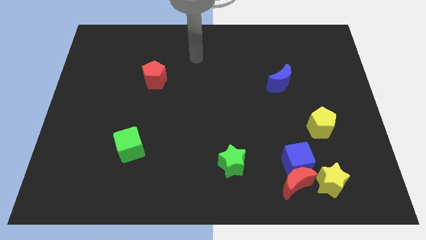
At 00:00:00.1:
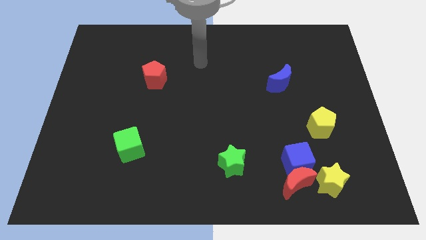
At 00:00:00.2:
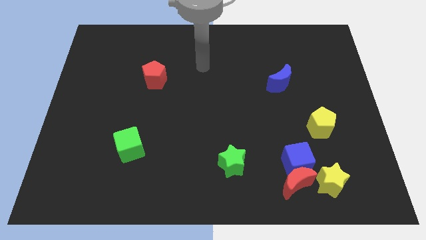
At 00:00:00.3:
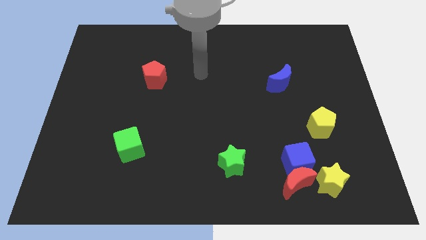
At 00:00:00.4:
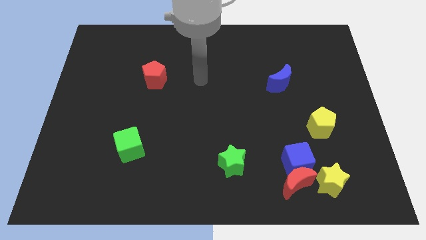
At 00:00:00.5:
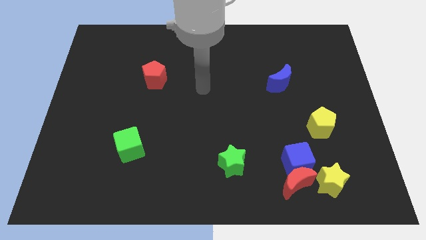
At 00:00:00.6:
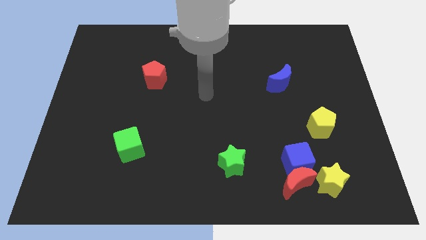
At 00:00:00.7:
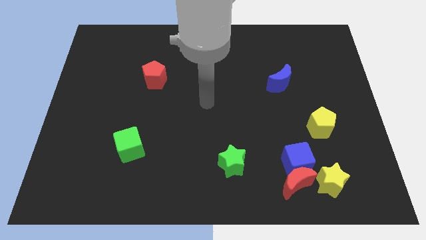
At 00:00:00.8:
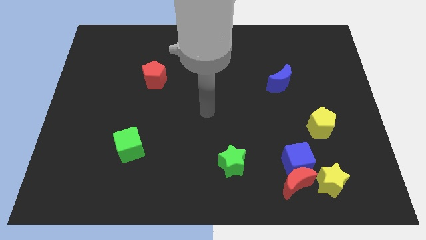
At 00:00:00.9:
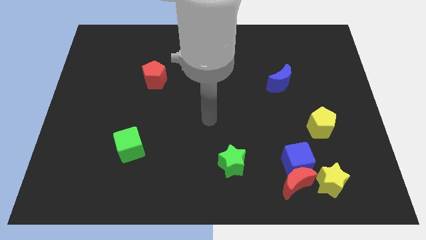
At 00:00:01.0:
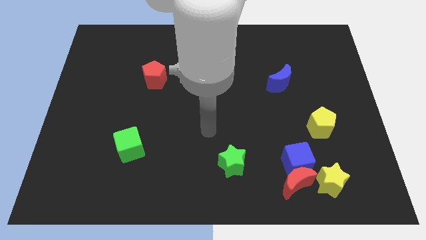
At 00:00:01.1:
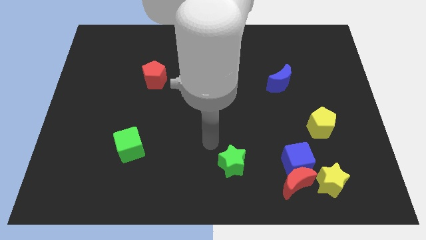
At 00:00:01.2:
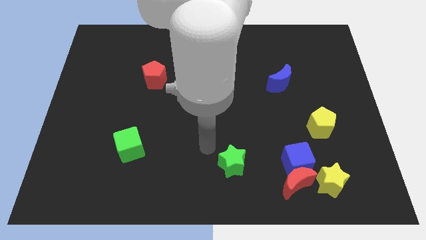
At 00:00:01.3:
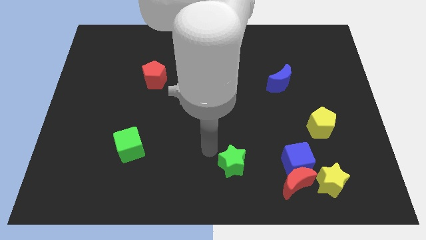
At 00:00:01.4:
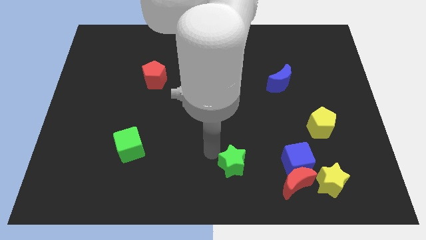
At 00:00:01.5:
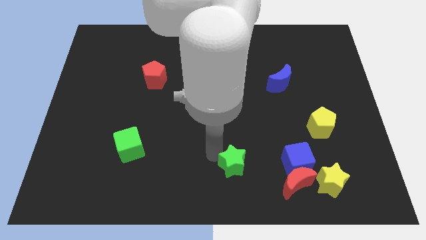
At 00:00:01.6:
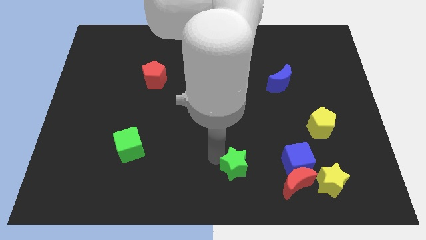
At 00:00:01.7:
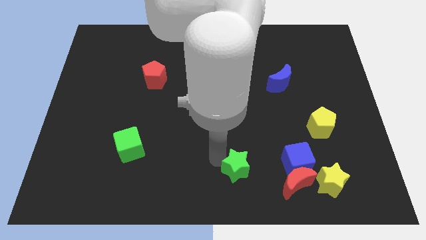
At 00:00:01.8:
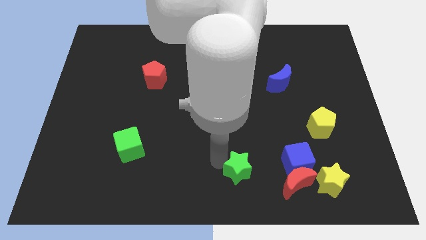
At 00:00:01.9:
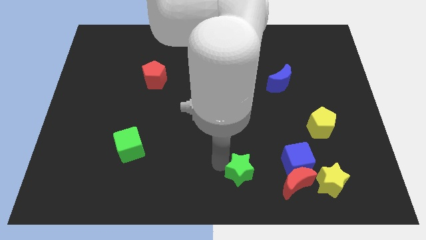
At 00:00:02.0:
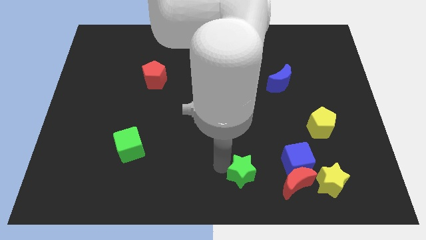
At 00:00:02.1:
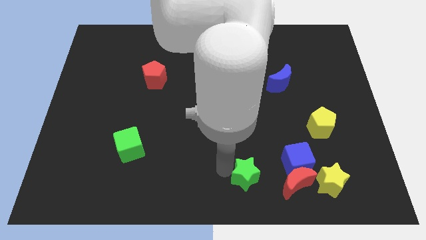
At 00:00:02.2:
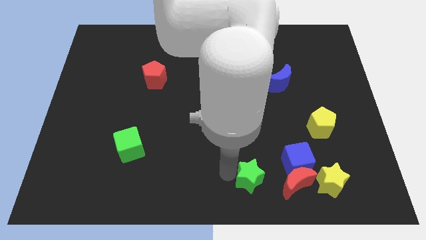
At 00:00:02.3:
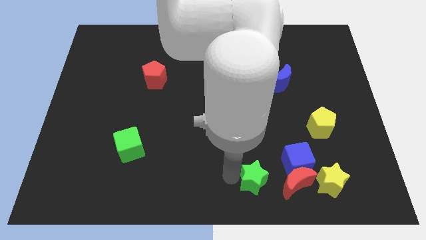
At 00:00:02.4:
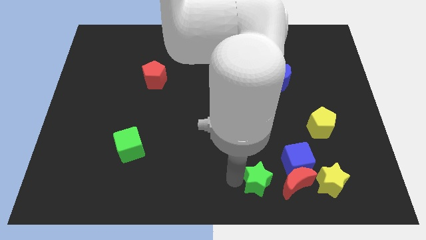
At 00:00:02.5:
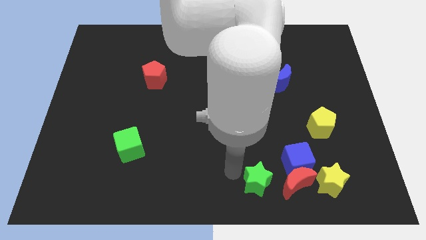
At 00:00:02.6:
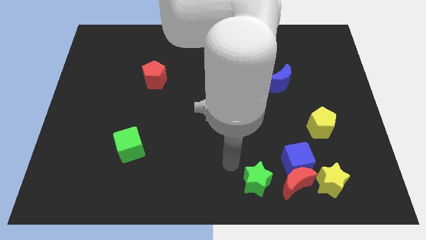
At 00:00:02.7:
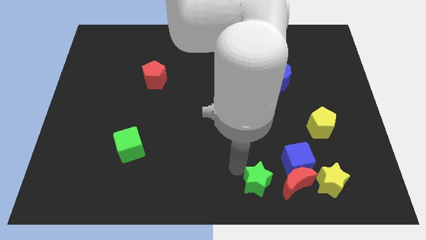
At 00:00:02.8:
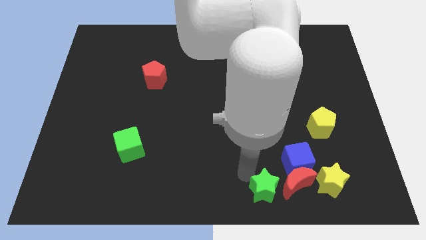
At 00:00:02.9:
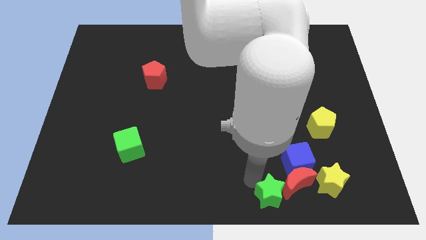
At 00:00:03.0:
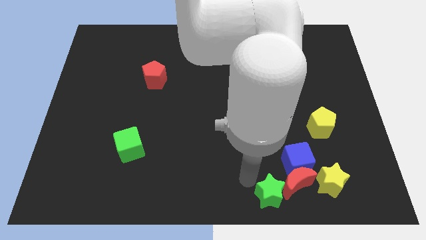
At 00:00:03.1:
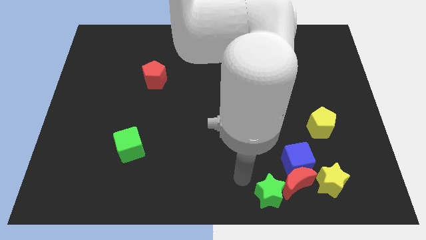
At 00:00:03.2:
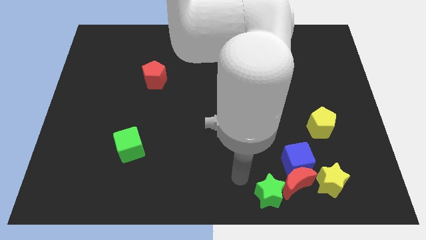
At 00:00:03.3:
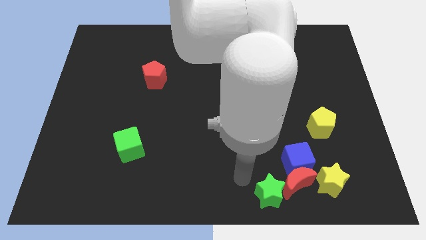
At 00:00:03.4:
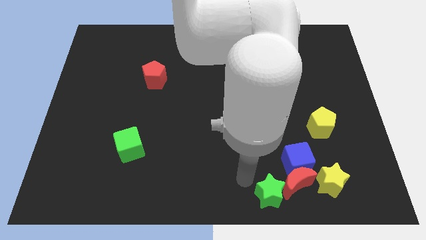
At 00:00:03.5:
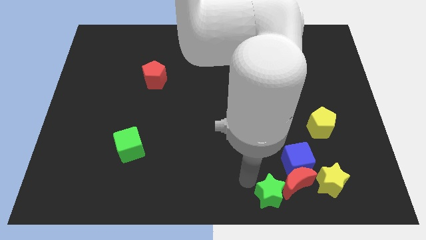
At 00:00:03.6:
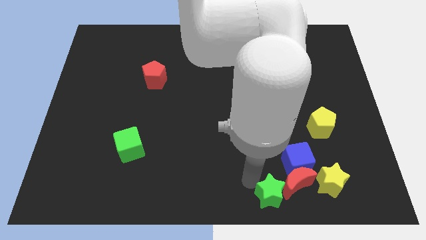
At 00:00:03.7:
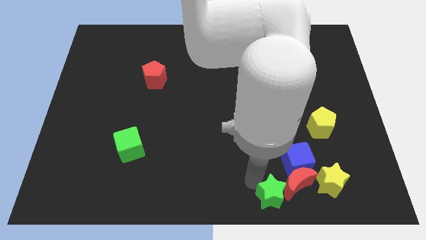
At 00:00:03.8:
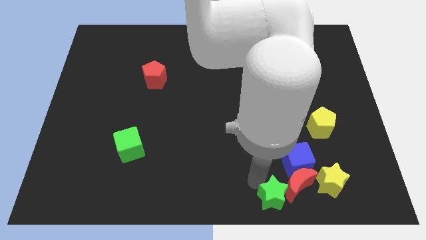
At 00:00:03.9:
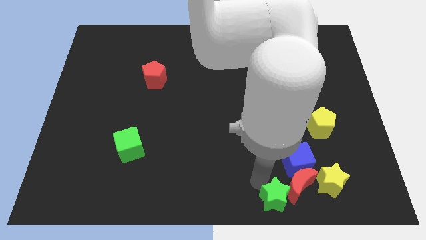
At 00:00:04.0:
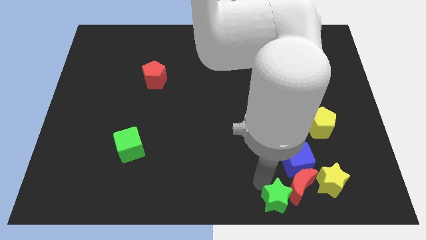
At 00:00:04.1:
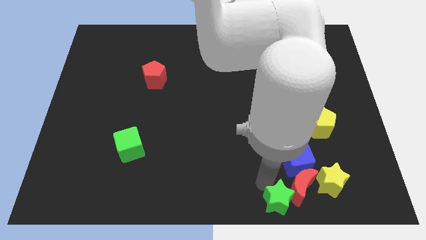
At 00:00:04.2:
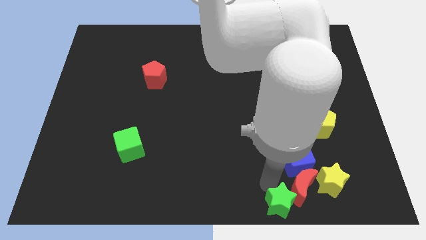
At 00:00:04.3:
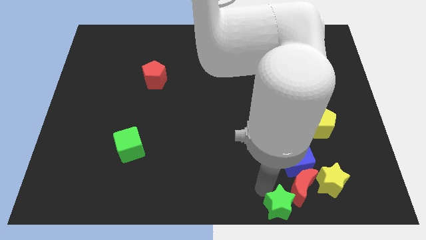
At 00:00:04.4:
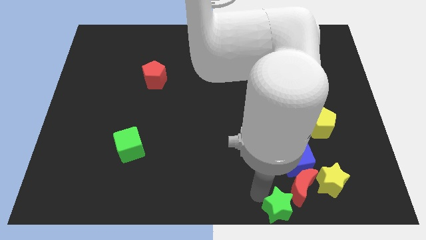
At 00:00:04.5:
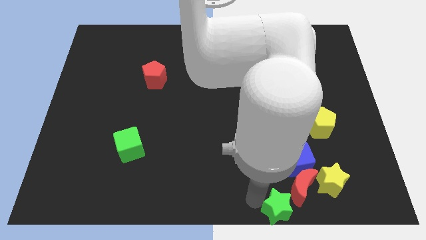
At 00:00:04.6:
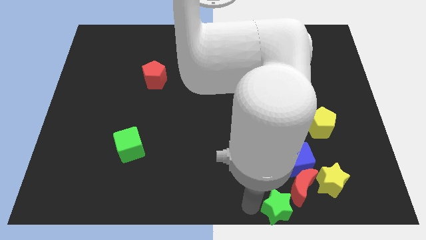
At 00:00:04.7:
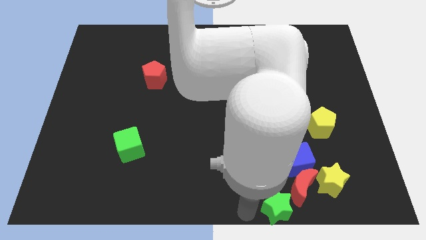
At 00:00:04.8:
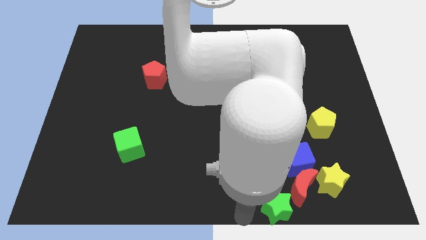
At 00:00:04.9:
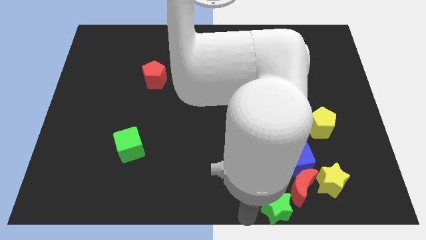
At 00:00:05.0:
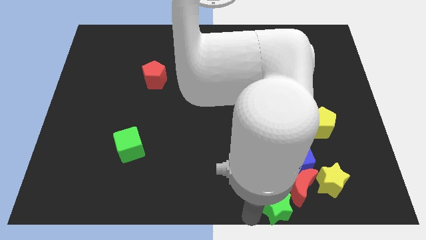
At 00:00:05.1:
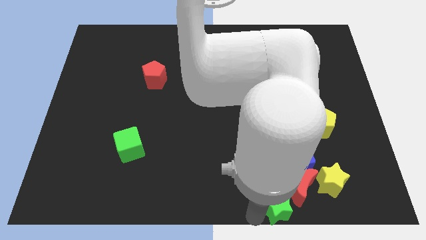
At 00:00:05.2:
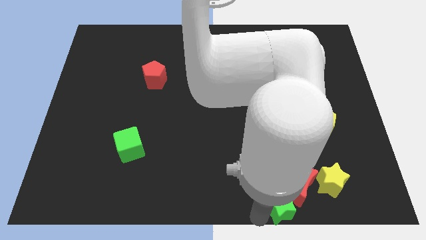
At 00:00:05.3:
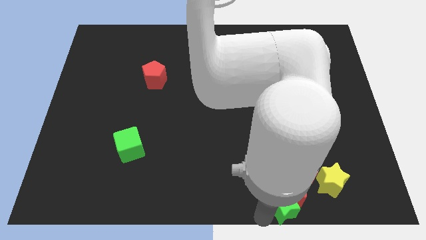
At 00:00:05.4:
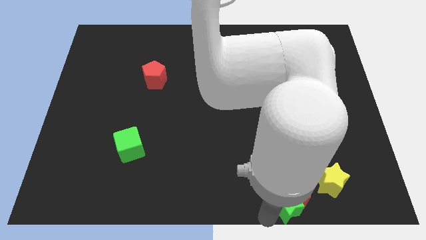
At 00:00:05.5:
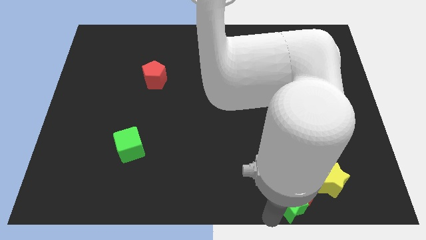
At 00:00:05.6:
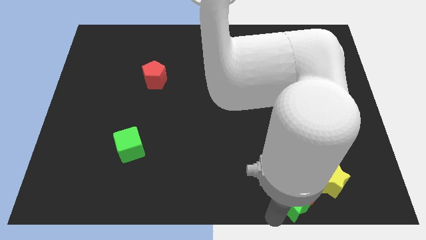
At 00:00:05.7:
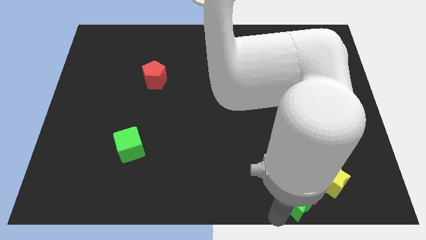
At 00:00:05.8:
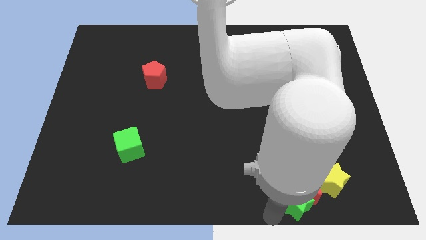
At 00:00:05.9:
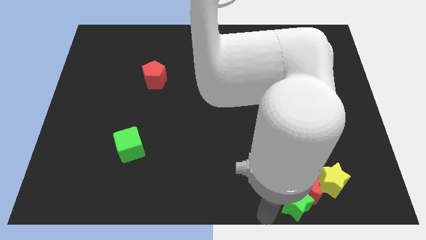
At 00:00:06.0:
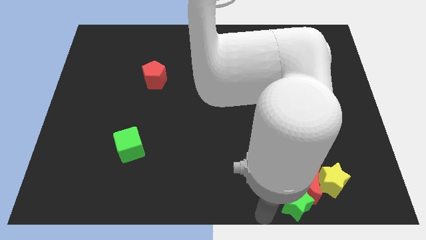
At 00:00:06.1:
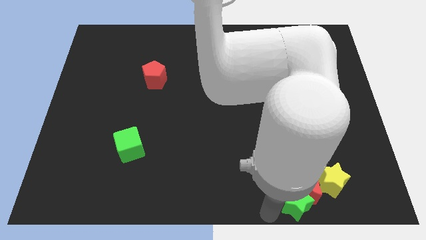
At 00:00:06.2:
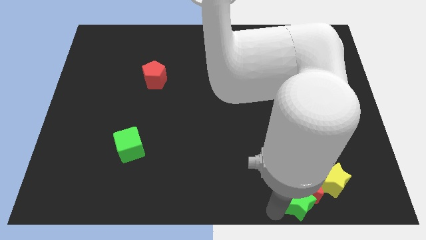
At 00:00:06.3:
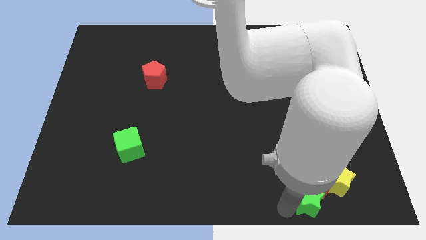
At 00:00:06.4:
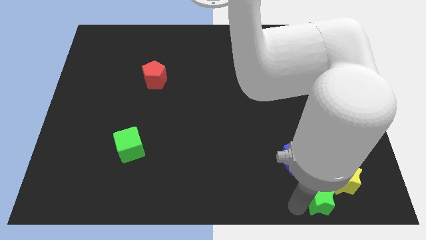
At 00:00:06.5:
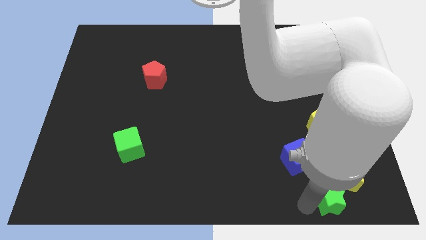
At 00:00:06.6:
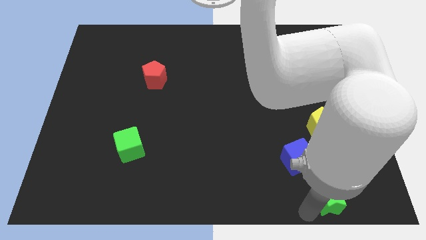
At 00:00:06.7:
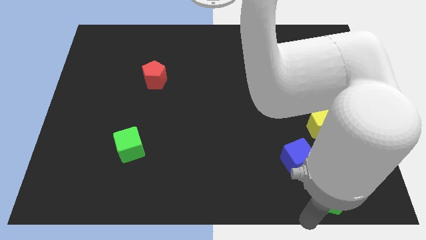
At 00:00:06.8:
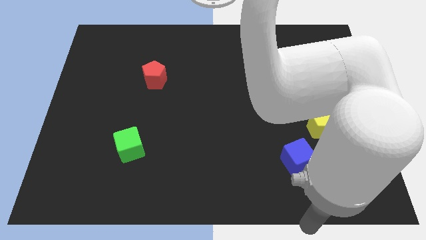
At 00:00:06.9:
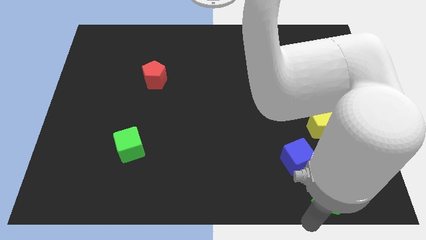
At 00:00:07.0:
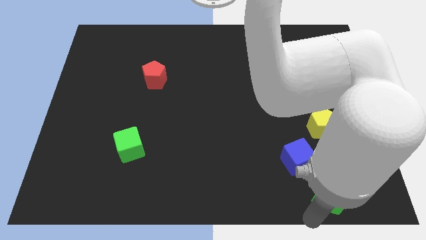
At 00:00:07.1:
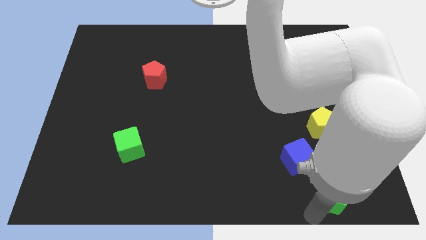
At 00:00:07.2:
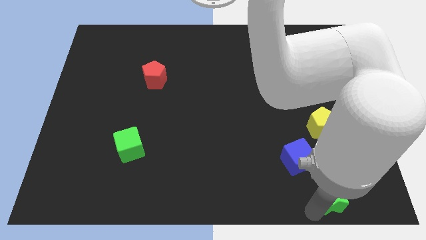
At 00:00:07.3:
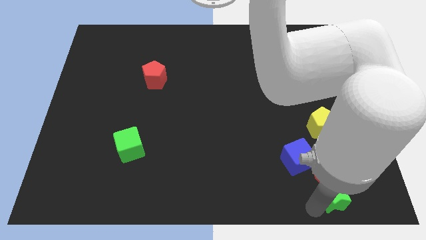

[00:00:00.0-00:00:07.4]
put the green star next to the yellow star

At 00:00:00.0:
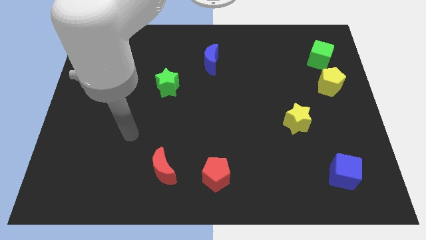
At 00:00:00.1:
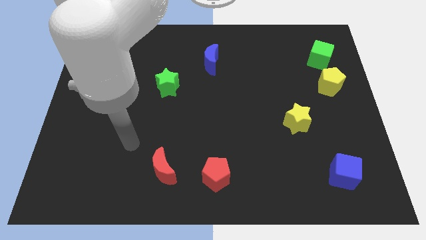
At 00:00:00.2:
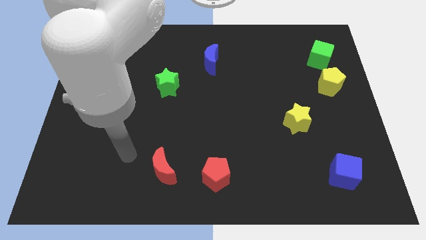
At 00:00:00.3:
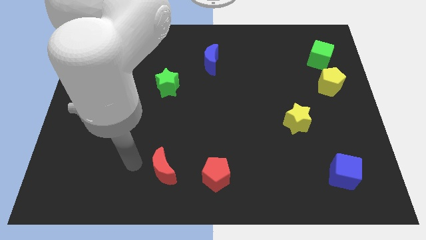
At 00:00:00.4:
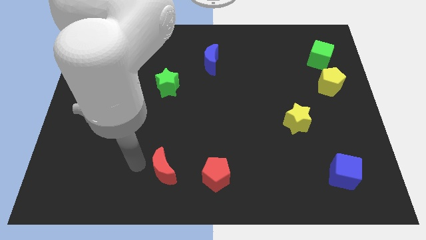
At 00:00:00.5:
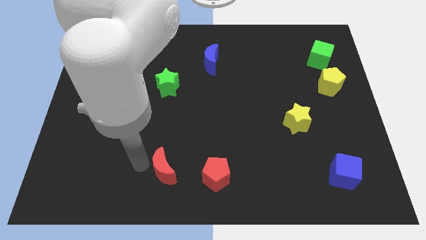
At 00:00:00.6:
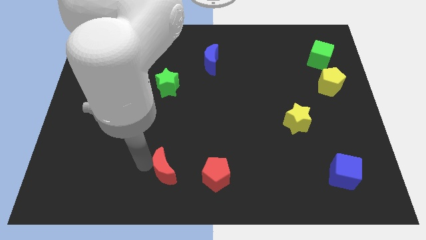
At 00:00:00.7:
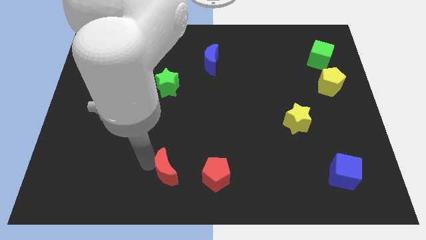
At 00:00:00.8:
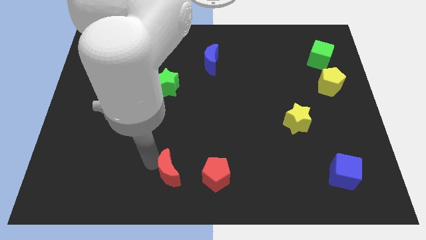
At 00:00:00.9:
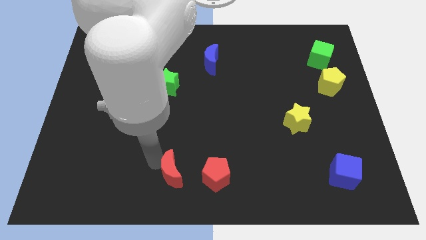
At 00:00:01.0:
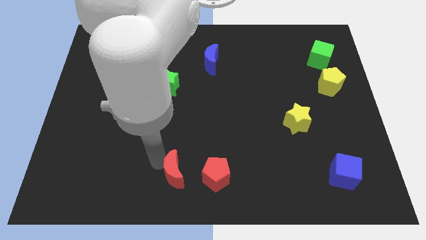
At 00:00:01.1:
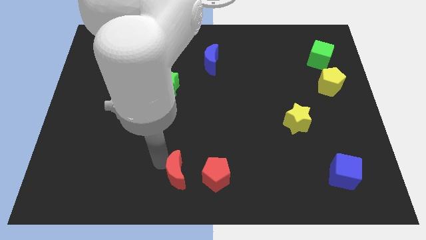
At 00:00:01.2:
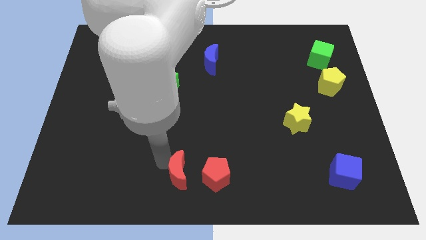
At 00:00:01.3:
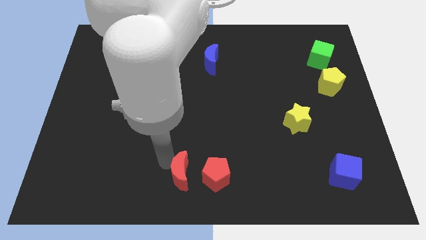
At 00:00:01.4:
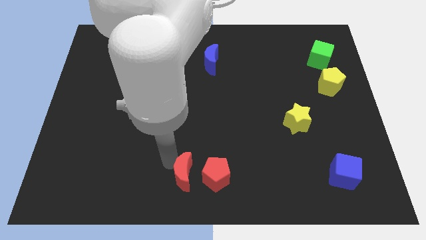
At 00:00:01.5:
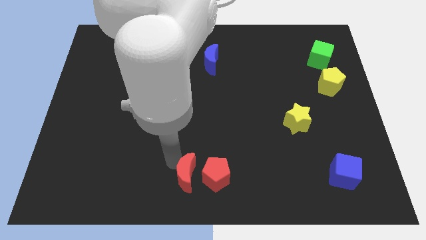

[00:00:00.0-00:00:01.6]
move the red moon towards the red pentagon
